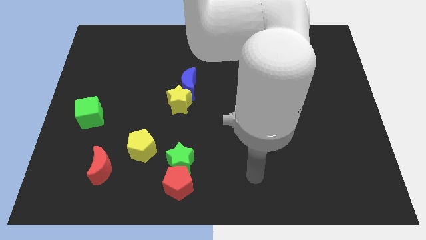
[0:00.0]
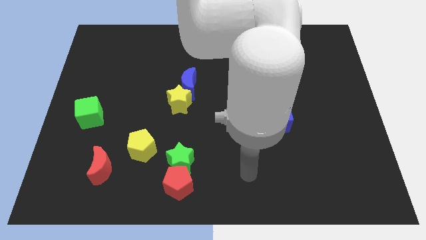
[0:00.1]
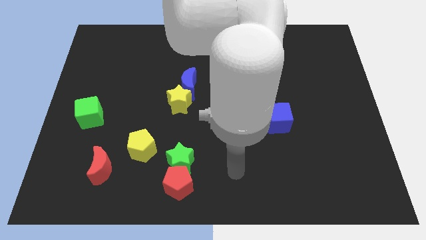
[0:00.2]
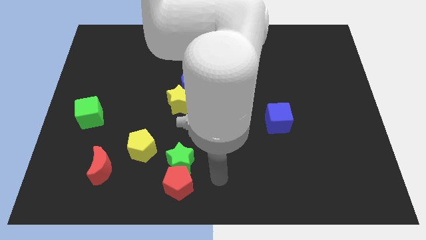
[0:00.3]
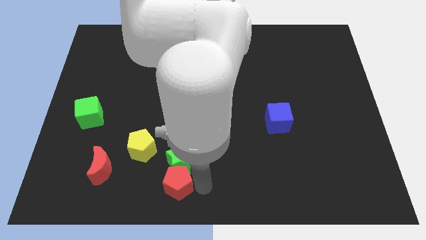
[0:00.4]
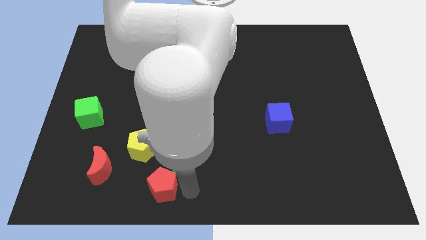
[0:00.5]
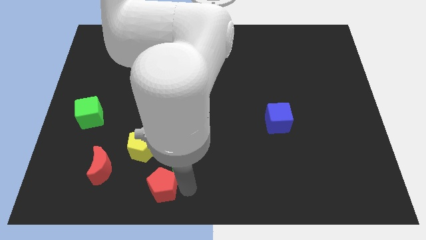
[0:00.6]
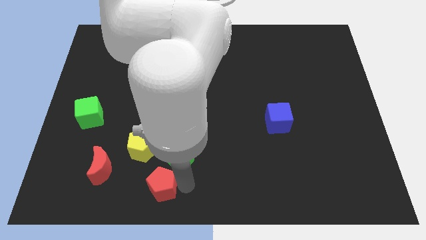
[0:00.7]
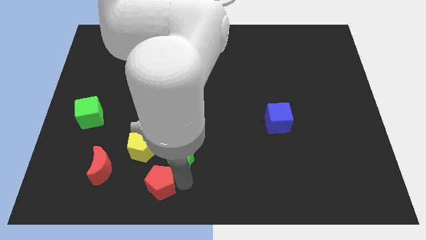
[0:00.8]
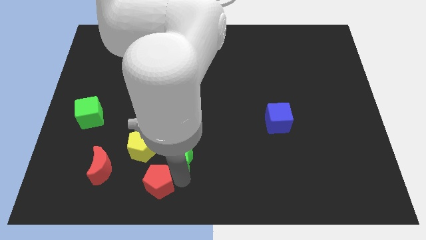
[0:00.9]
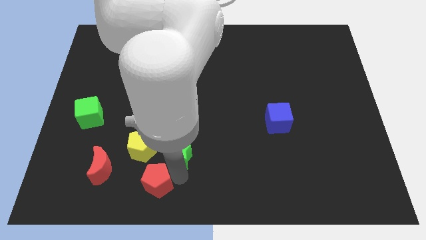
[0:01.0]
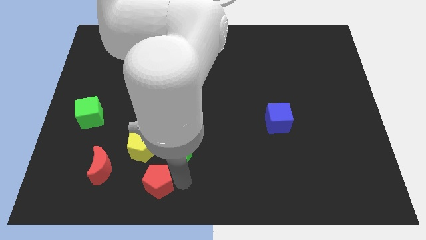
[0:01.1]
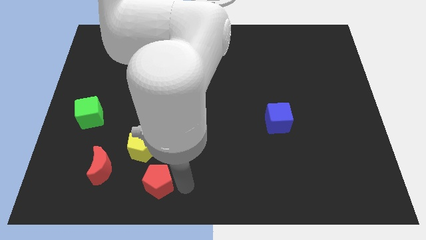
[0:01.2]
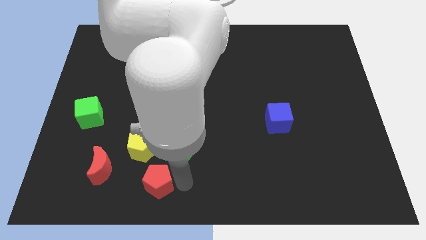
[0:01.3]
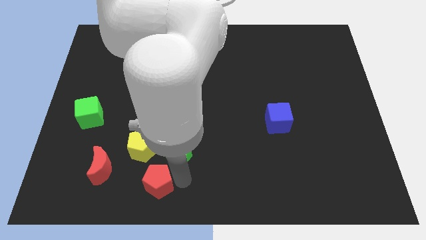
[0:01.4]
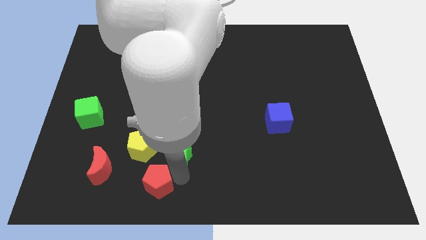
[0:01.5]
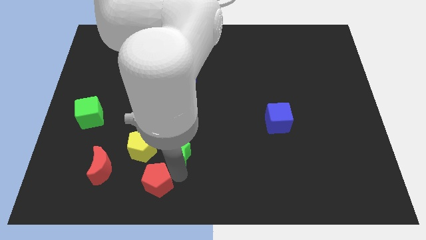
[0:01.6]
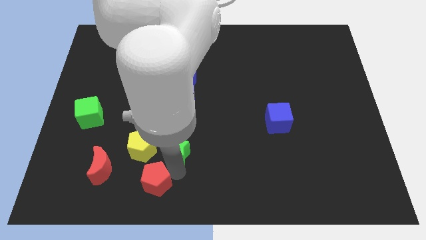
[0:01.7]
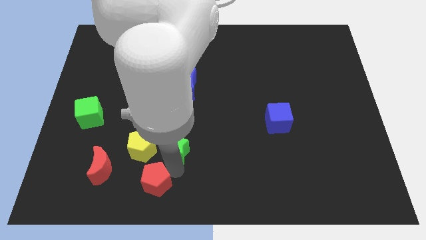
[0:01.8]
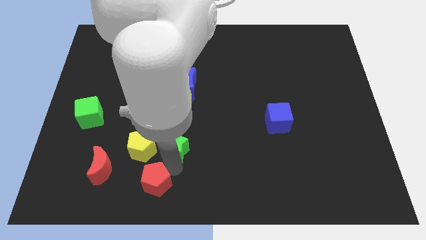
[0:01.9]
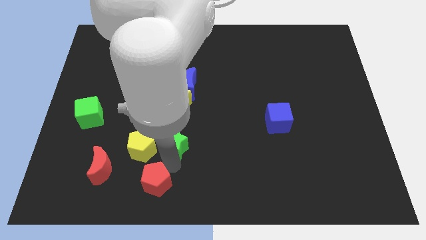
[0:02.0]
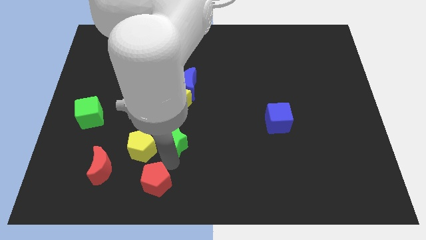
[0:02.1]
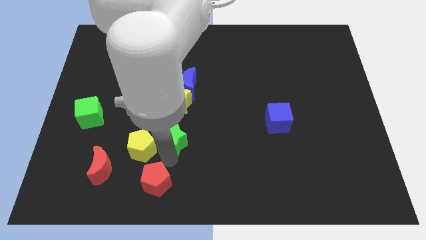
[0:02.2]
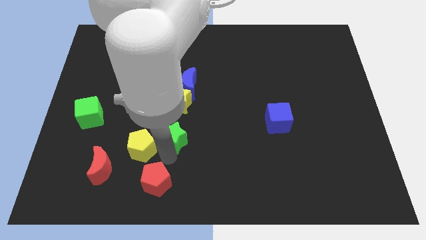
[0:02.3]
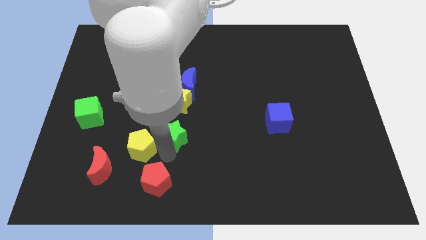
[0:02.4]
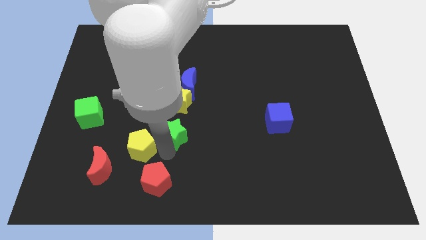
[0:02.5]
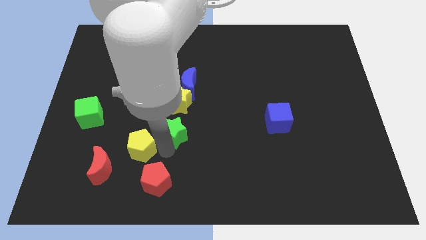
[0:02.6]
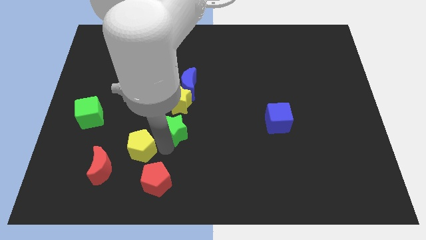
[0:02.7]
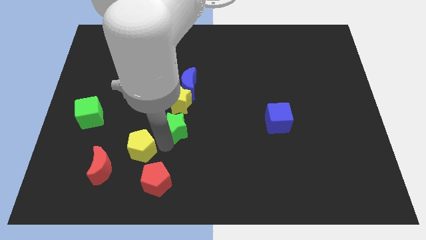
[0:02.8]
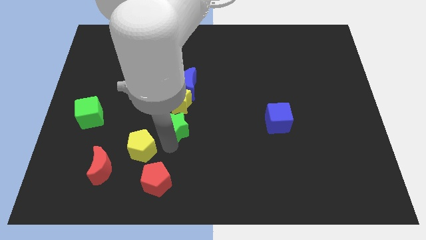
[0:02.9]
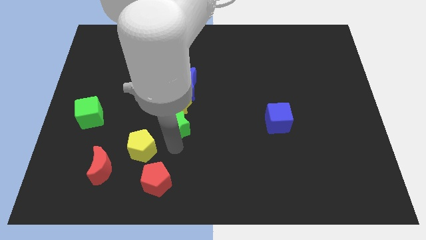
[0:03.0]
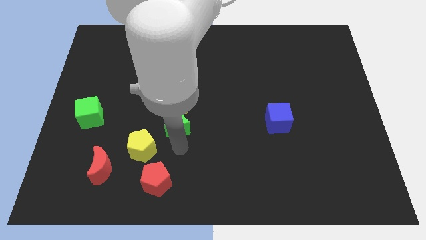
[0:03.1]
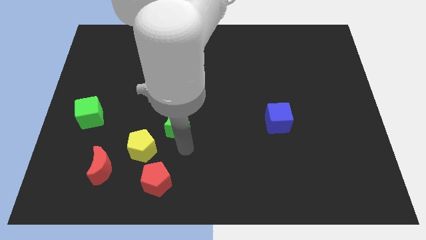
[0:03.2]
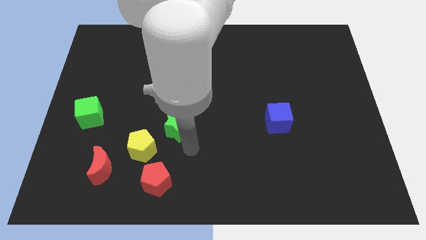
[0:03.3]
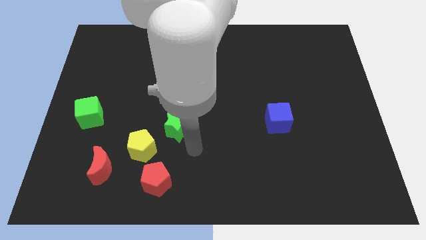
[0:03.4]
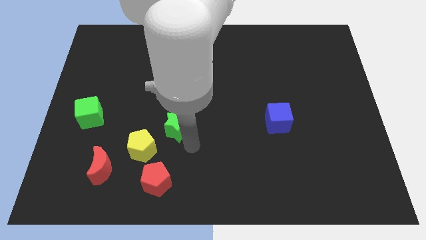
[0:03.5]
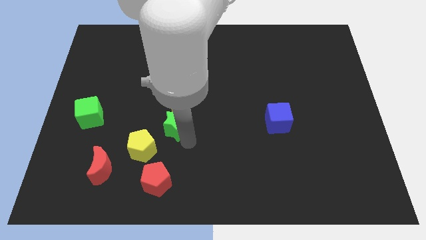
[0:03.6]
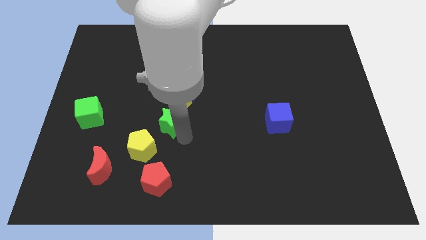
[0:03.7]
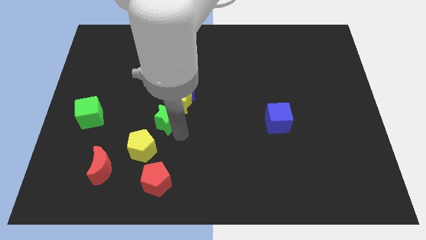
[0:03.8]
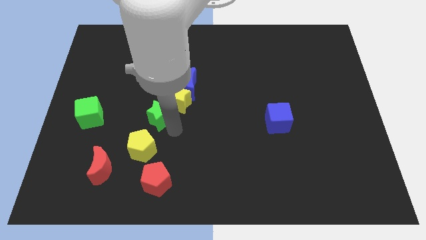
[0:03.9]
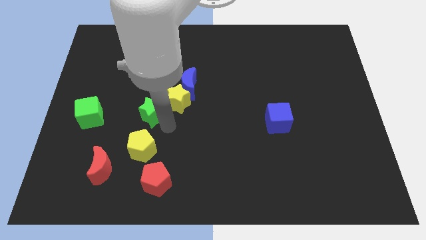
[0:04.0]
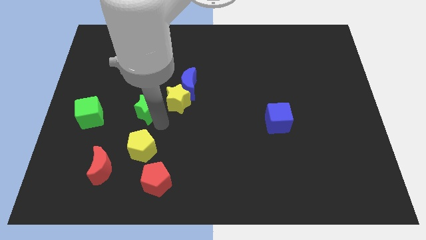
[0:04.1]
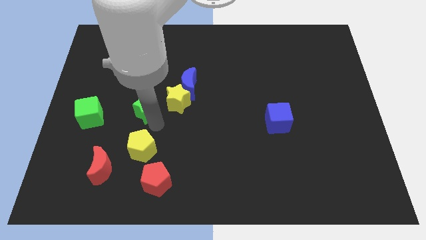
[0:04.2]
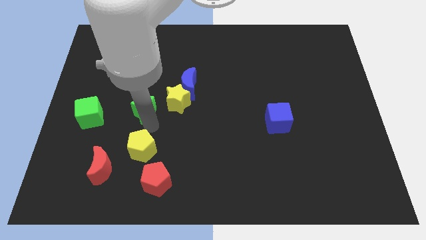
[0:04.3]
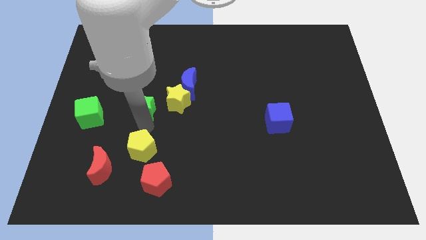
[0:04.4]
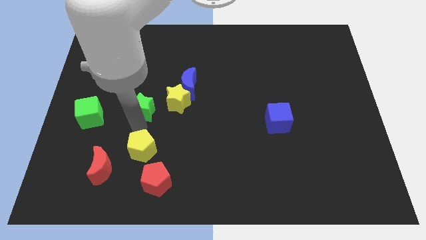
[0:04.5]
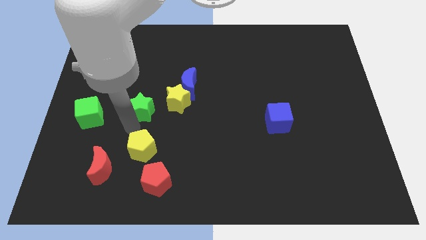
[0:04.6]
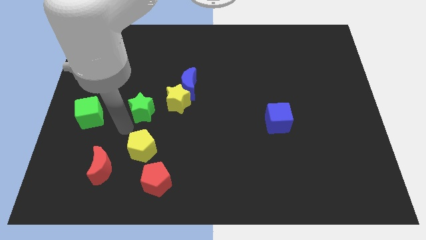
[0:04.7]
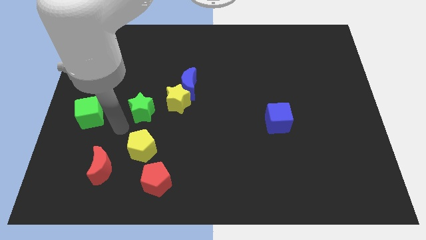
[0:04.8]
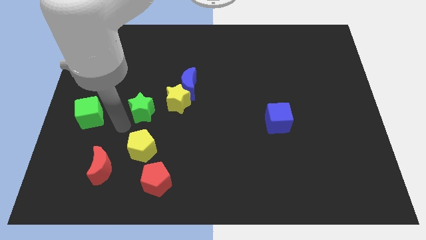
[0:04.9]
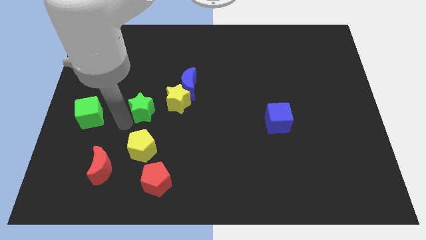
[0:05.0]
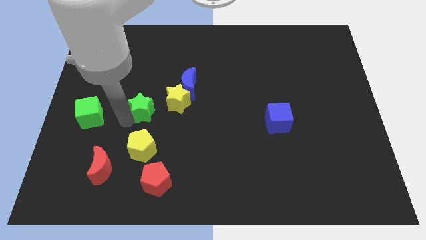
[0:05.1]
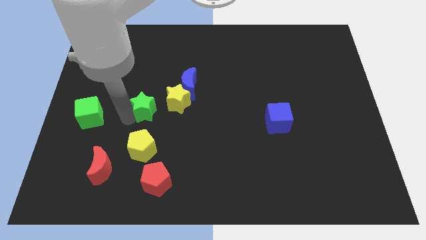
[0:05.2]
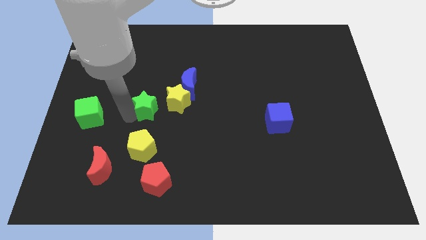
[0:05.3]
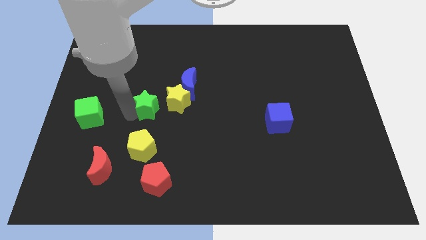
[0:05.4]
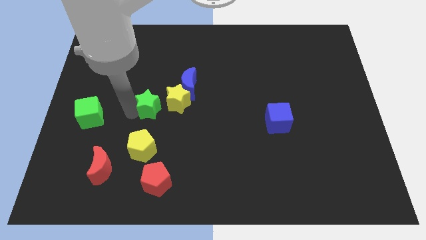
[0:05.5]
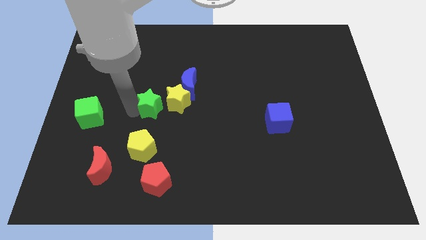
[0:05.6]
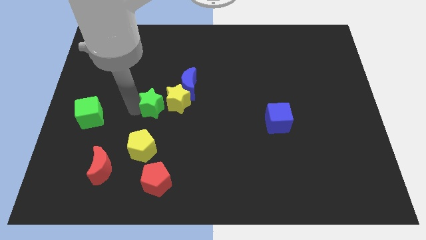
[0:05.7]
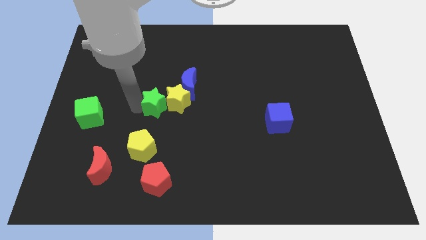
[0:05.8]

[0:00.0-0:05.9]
slide the green star diagonally up and to the left of the yellow star

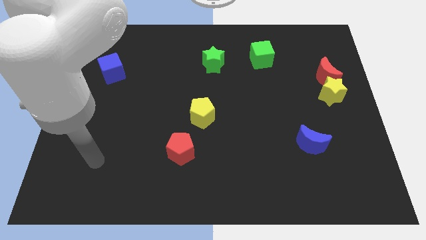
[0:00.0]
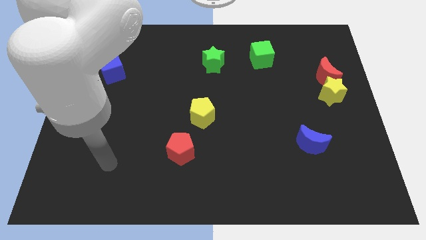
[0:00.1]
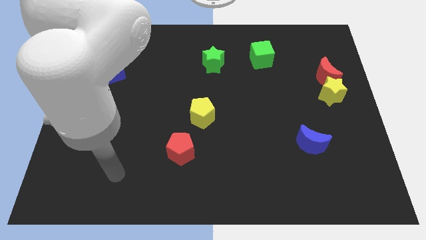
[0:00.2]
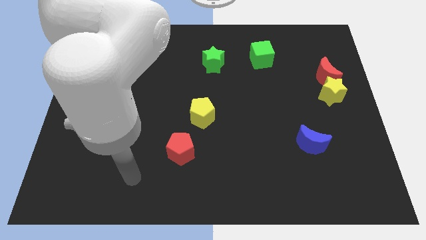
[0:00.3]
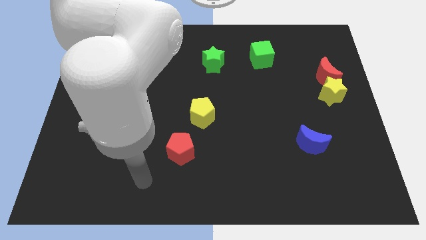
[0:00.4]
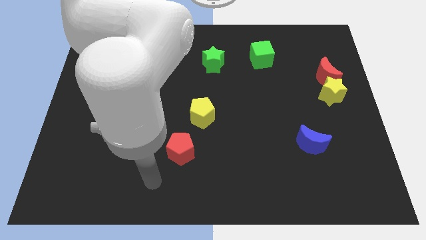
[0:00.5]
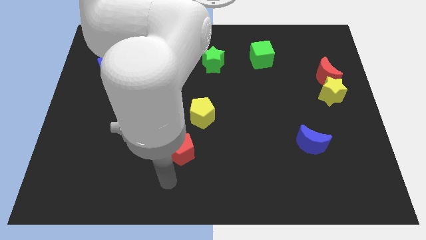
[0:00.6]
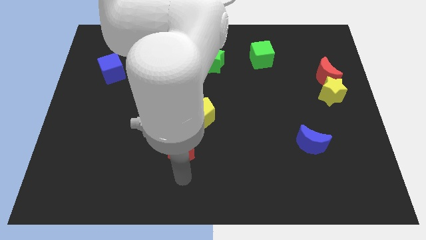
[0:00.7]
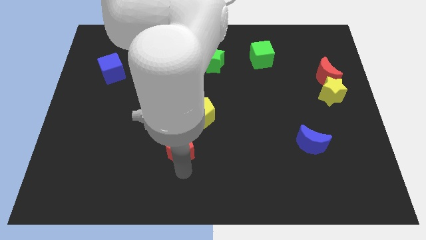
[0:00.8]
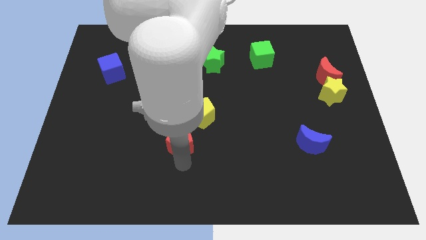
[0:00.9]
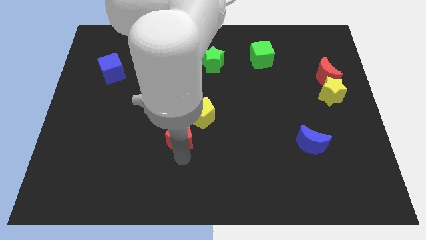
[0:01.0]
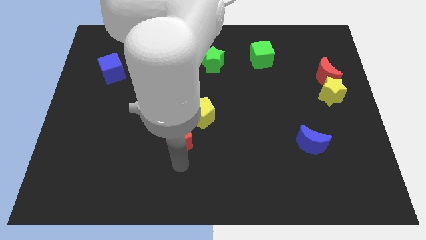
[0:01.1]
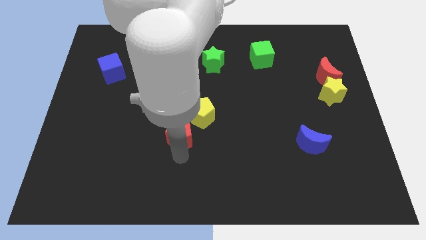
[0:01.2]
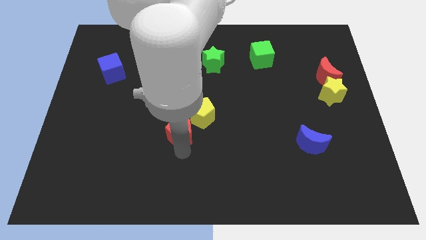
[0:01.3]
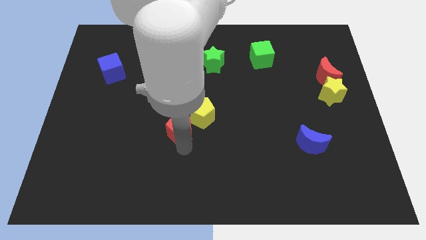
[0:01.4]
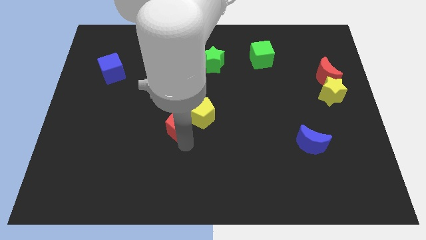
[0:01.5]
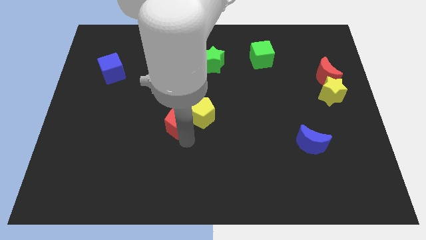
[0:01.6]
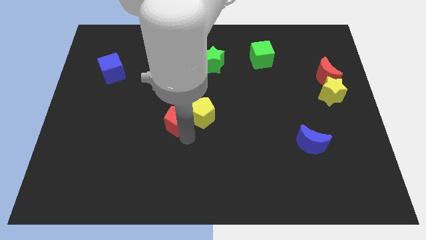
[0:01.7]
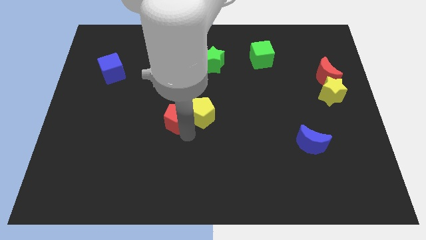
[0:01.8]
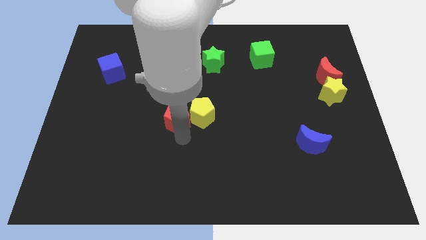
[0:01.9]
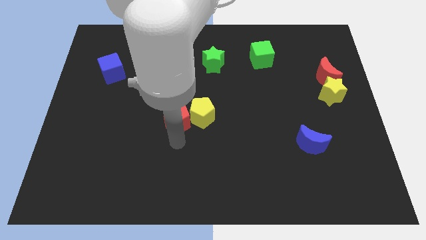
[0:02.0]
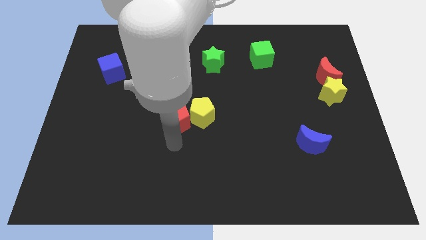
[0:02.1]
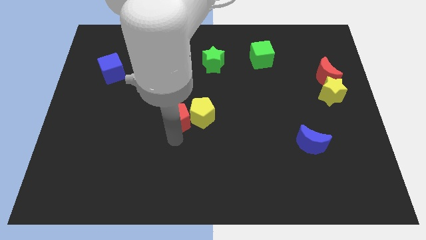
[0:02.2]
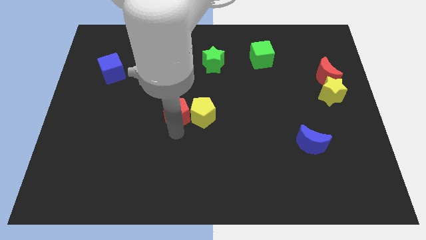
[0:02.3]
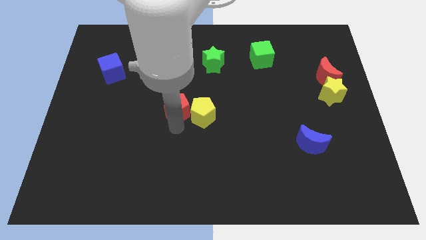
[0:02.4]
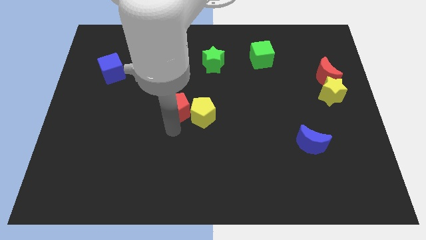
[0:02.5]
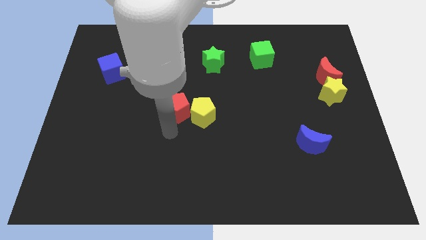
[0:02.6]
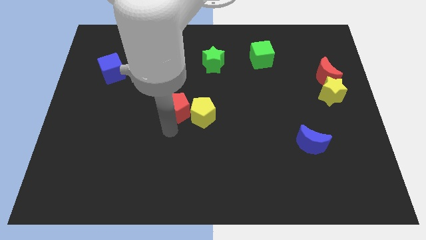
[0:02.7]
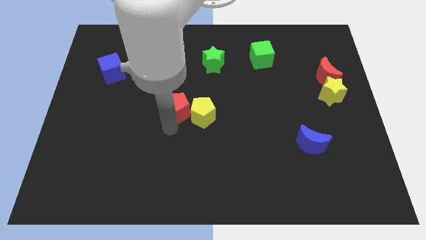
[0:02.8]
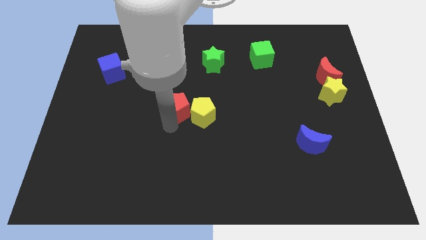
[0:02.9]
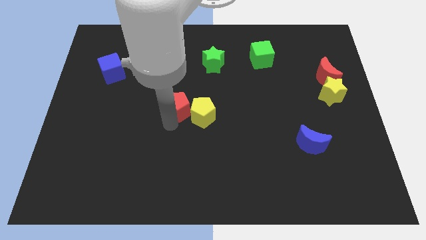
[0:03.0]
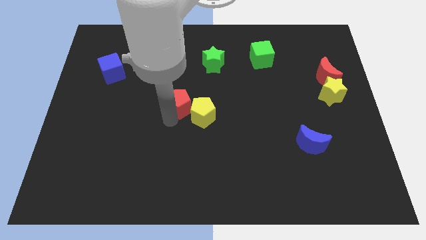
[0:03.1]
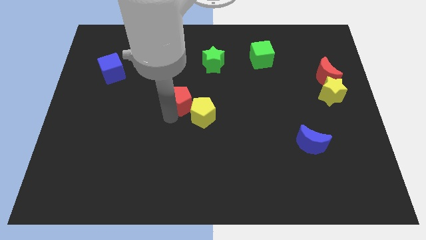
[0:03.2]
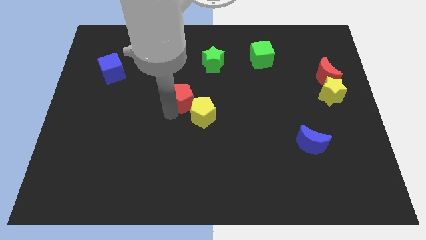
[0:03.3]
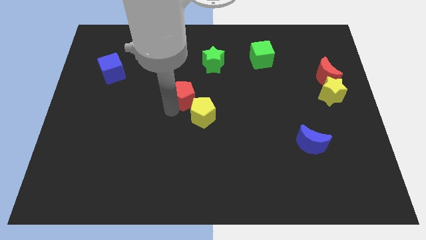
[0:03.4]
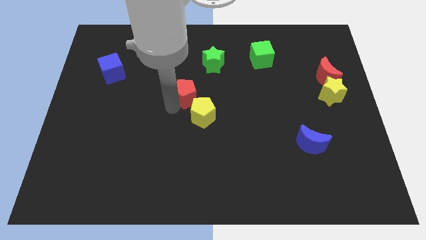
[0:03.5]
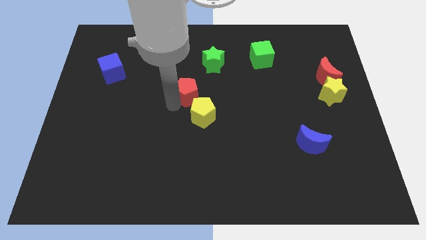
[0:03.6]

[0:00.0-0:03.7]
move the red pentagon to the bottom left of the green star
